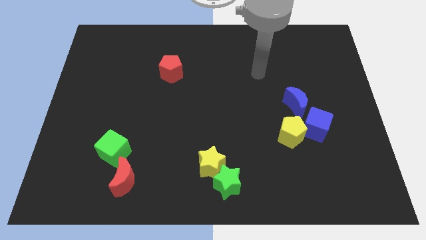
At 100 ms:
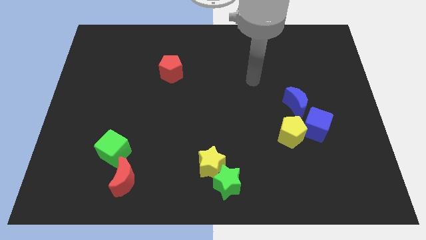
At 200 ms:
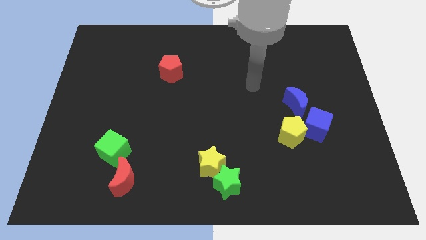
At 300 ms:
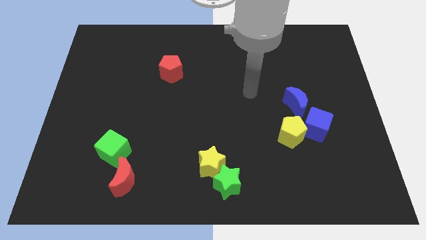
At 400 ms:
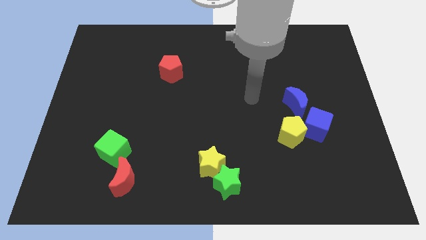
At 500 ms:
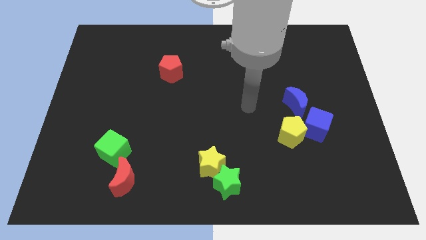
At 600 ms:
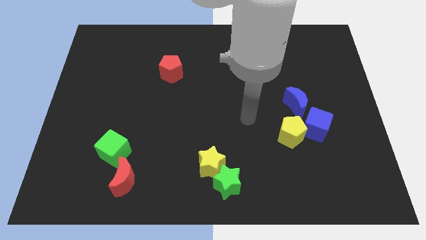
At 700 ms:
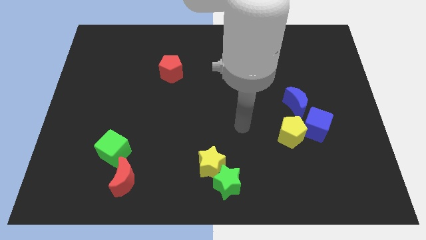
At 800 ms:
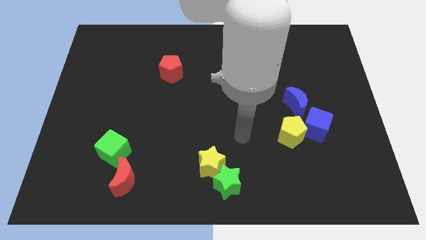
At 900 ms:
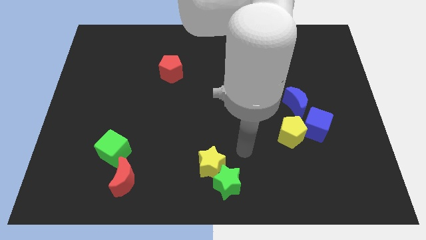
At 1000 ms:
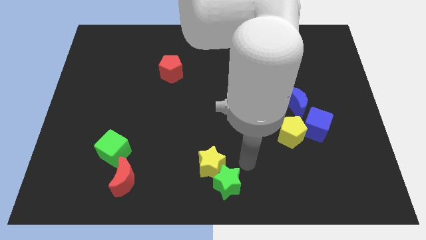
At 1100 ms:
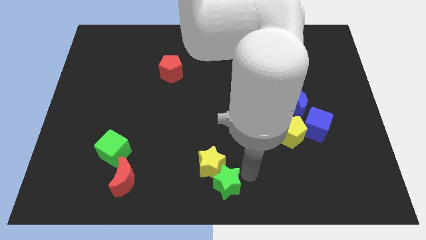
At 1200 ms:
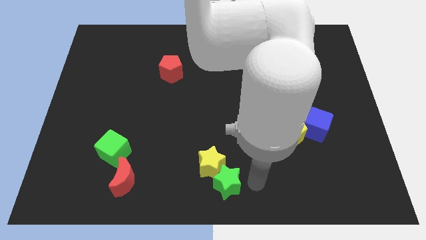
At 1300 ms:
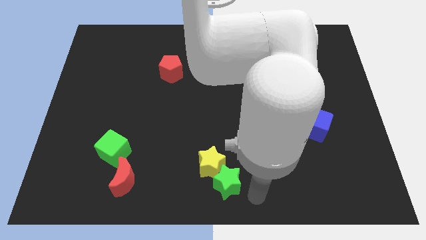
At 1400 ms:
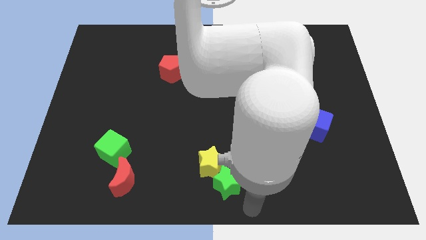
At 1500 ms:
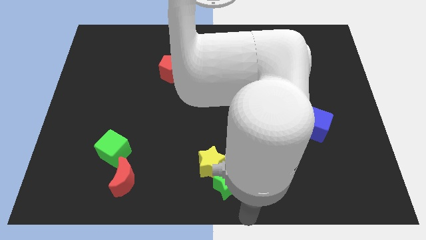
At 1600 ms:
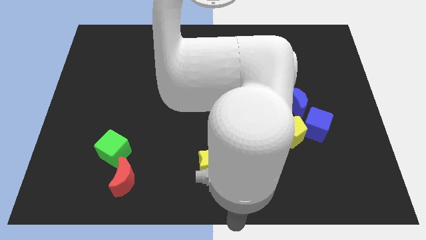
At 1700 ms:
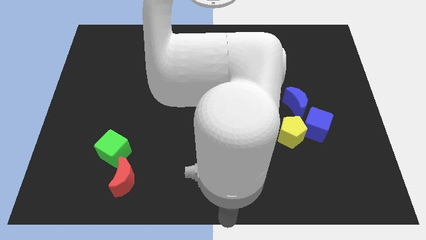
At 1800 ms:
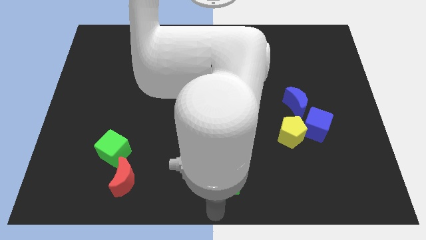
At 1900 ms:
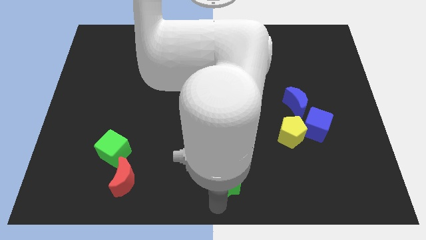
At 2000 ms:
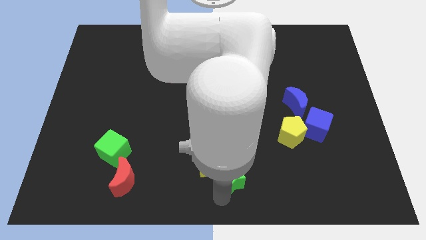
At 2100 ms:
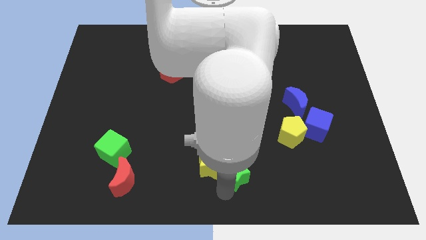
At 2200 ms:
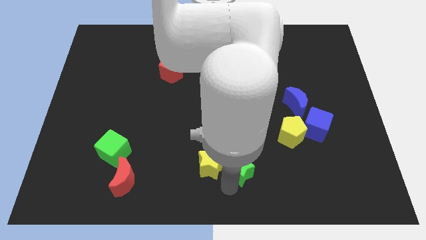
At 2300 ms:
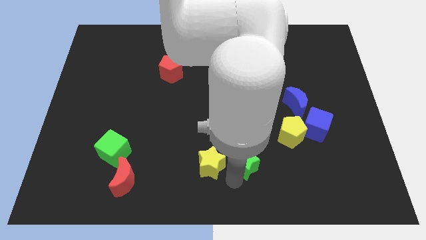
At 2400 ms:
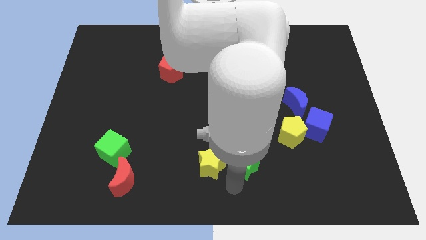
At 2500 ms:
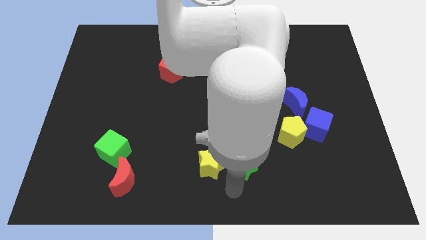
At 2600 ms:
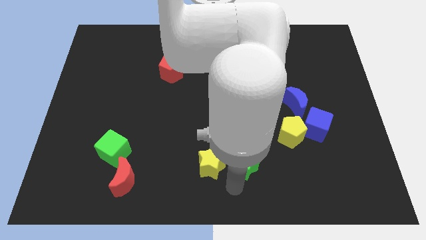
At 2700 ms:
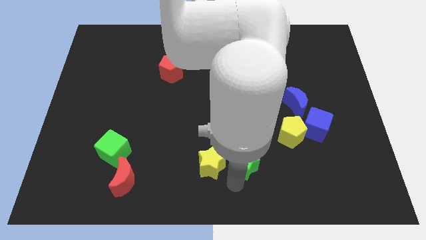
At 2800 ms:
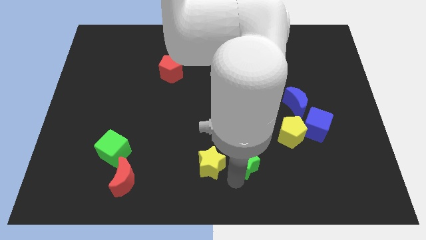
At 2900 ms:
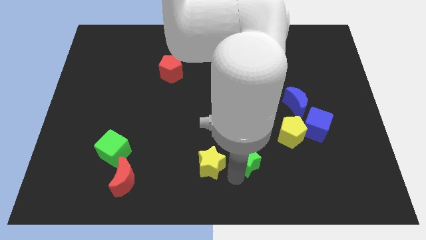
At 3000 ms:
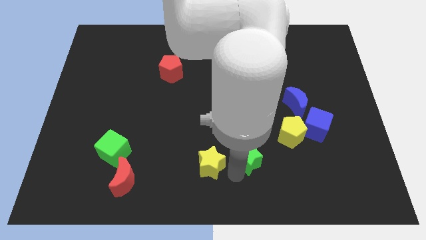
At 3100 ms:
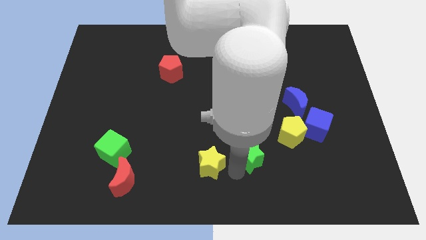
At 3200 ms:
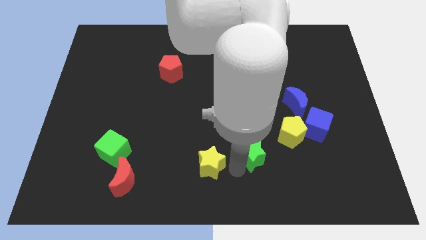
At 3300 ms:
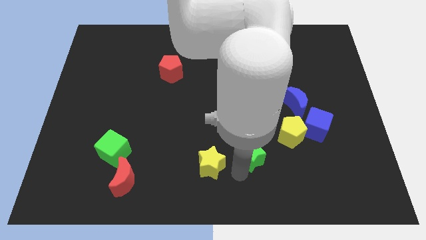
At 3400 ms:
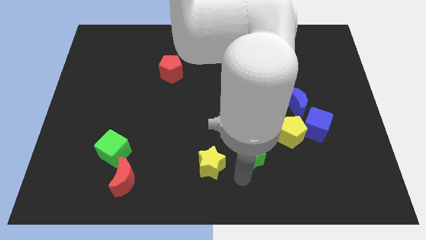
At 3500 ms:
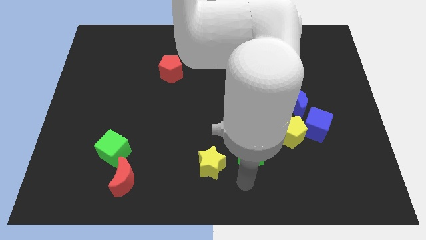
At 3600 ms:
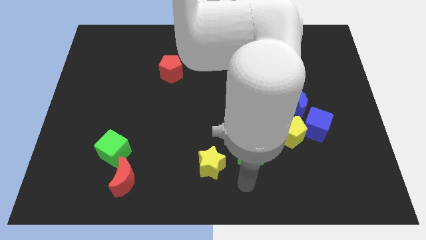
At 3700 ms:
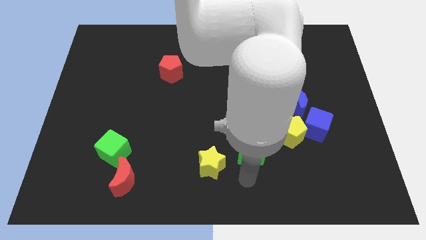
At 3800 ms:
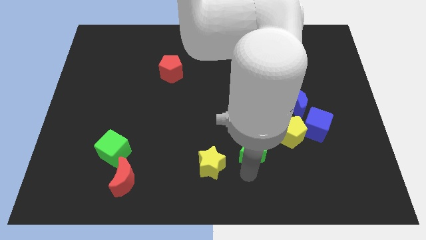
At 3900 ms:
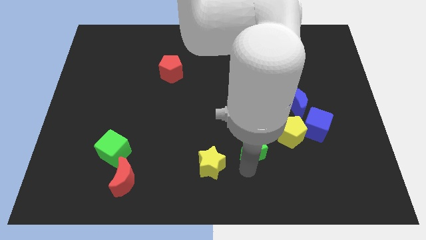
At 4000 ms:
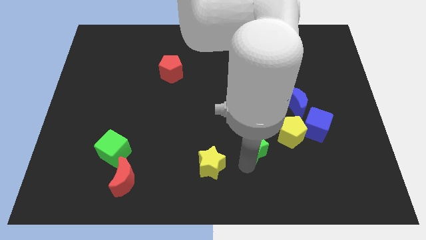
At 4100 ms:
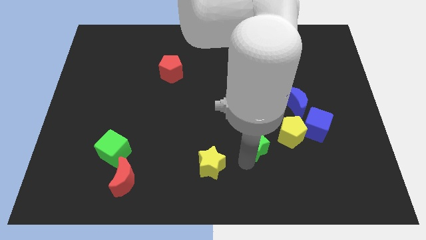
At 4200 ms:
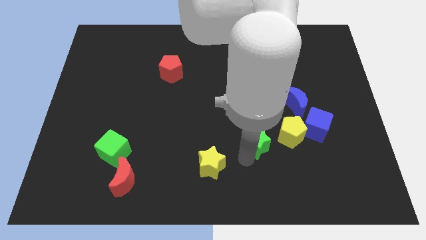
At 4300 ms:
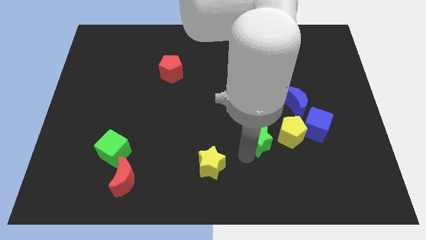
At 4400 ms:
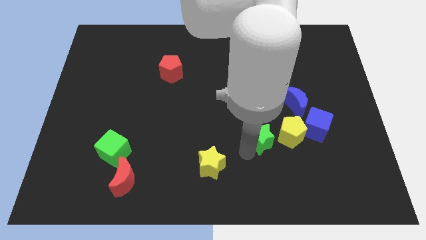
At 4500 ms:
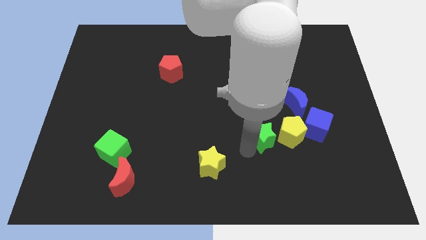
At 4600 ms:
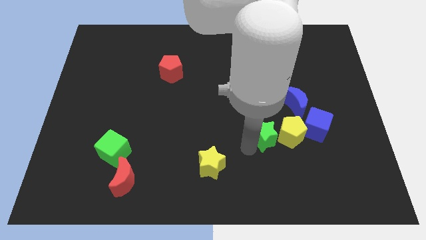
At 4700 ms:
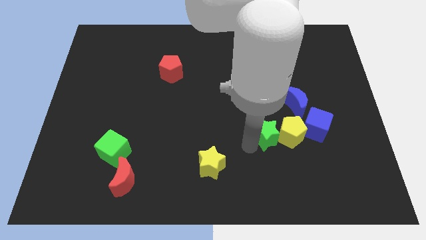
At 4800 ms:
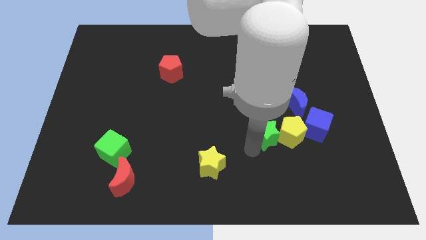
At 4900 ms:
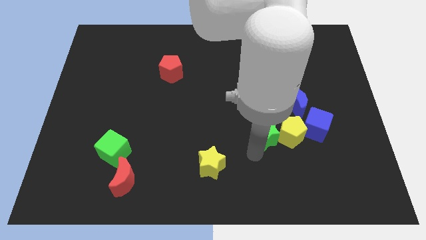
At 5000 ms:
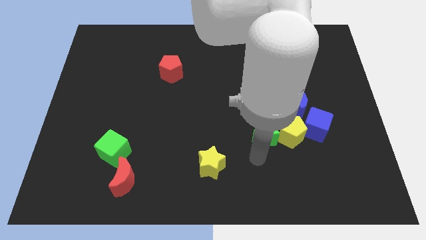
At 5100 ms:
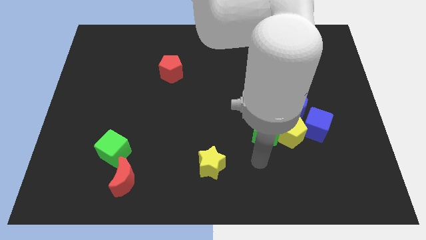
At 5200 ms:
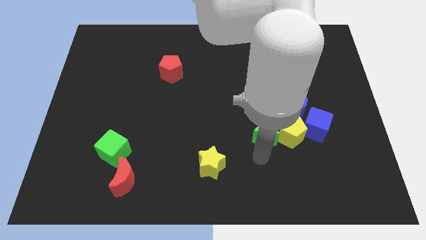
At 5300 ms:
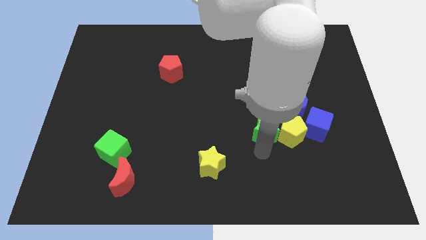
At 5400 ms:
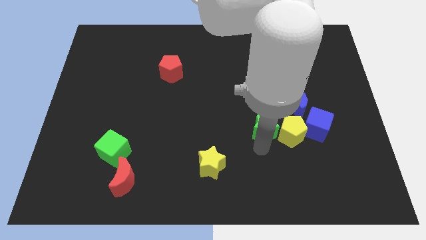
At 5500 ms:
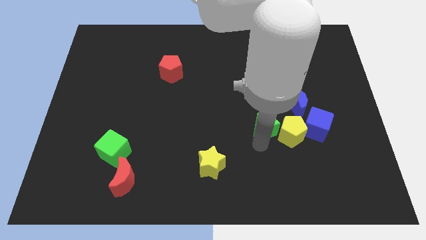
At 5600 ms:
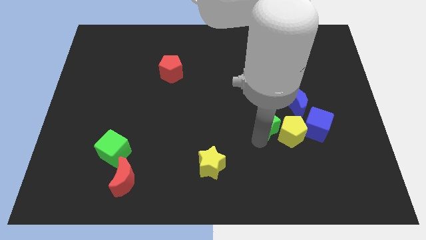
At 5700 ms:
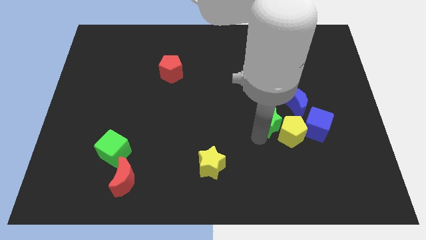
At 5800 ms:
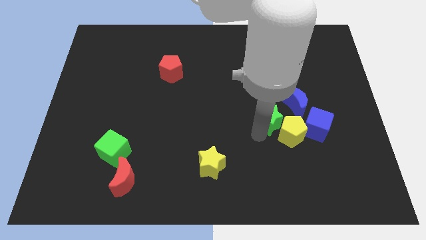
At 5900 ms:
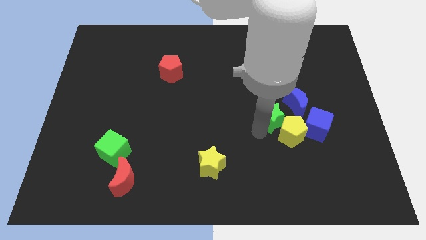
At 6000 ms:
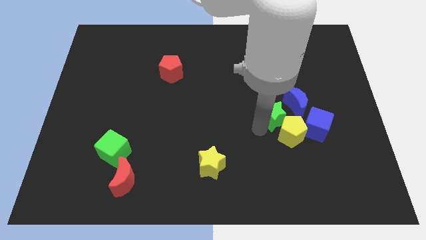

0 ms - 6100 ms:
push the green star diagonally up and to the left of the blue cube
